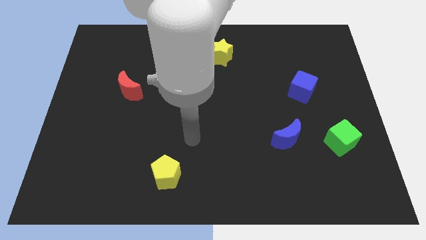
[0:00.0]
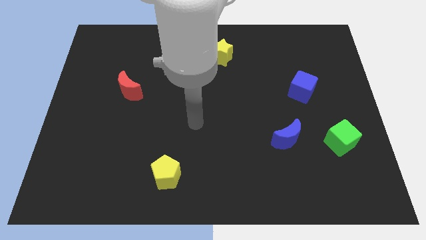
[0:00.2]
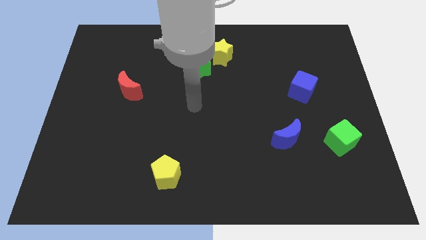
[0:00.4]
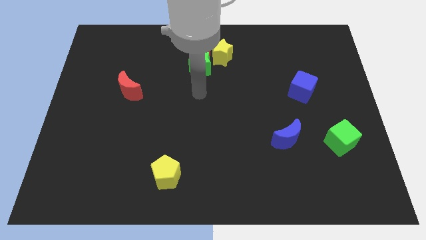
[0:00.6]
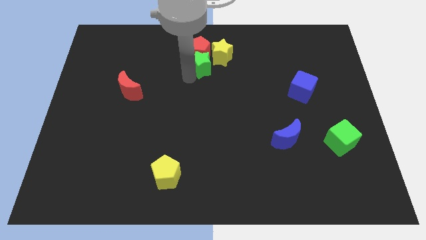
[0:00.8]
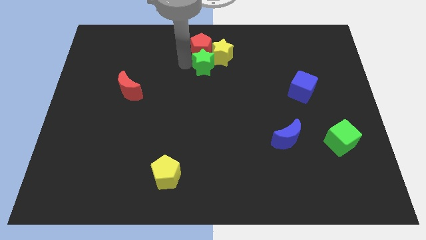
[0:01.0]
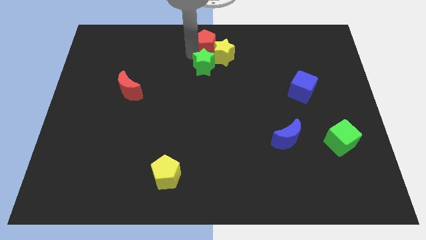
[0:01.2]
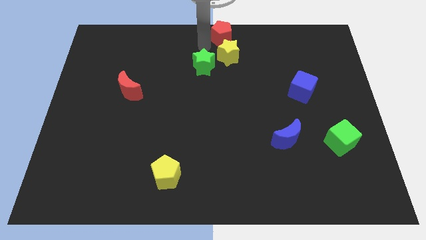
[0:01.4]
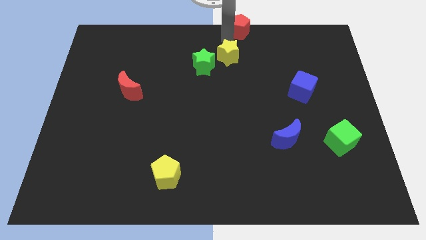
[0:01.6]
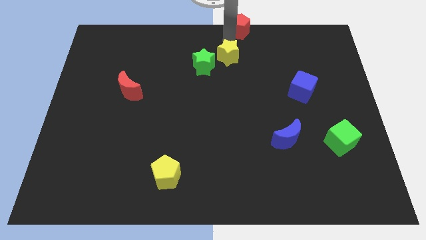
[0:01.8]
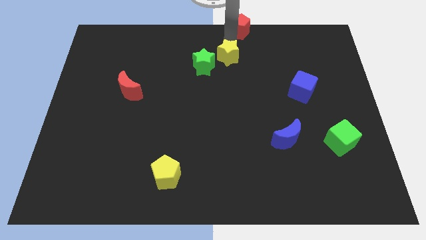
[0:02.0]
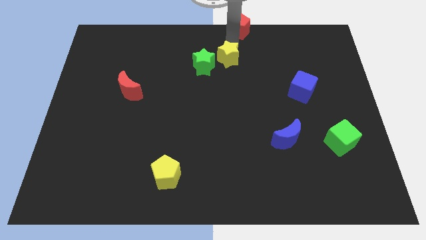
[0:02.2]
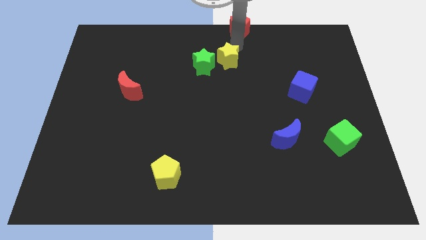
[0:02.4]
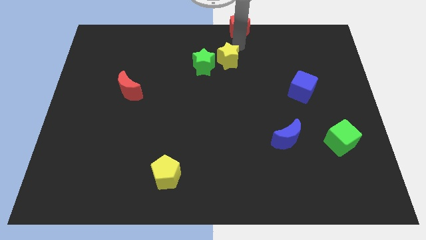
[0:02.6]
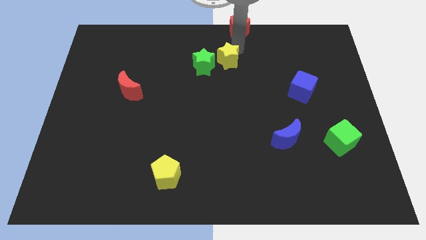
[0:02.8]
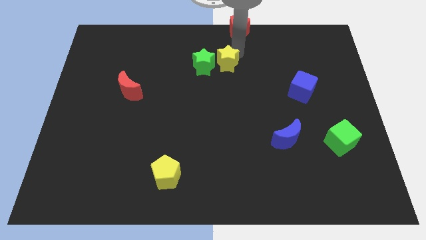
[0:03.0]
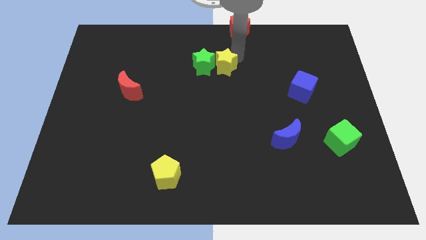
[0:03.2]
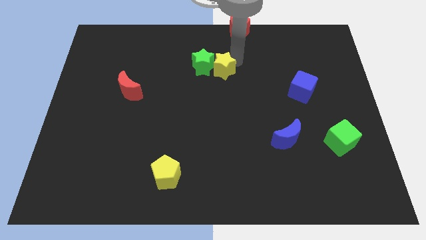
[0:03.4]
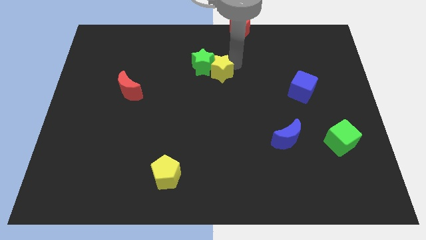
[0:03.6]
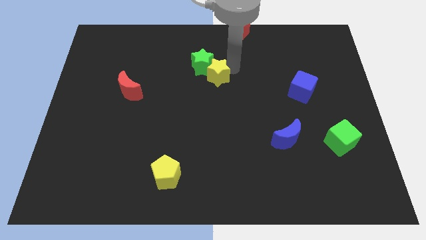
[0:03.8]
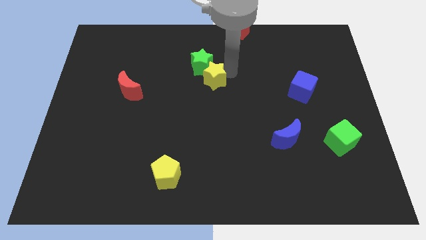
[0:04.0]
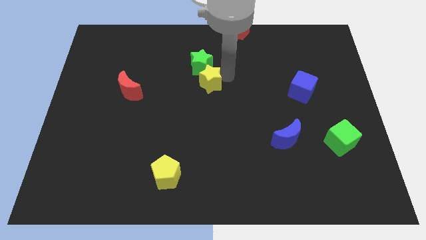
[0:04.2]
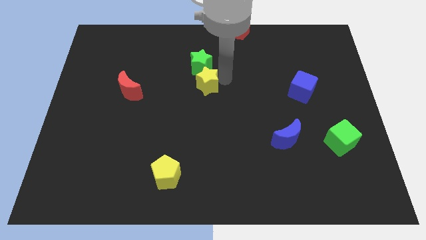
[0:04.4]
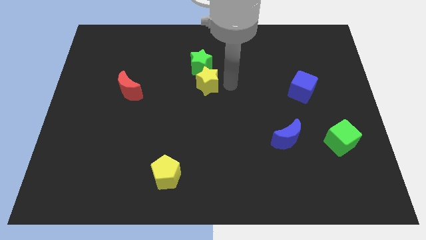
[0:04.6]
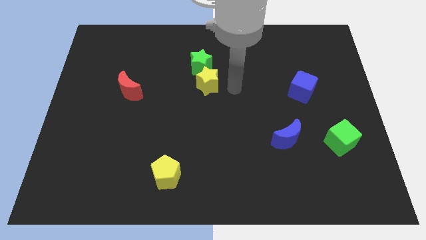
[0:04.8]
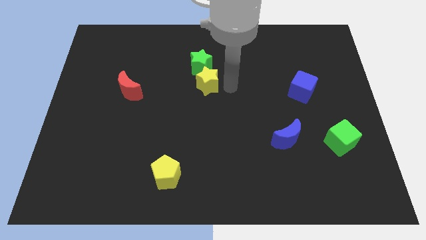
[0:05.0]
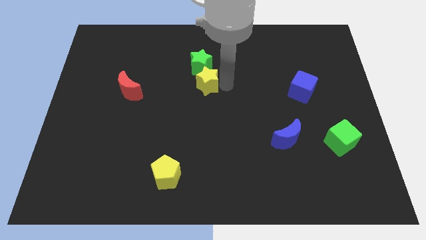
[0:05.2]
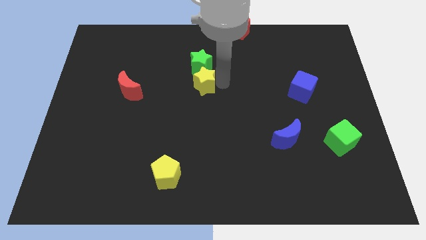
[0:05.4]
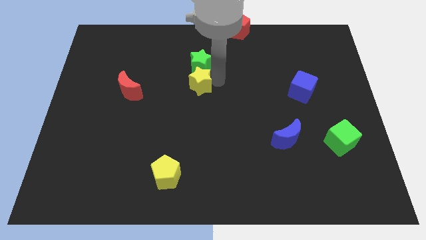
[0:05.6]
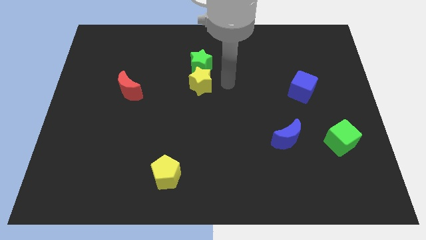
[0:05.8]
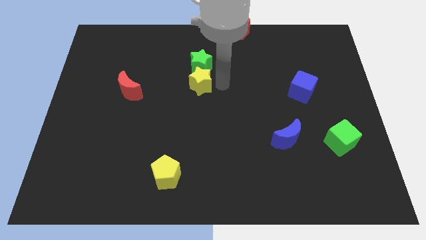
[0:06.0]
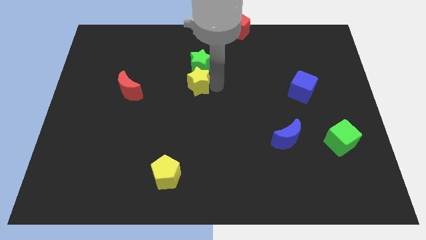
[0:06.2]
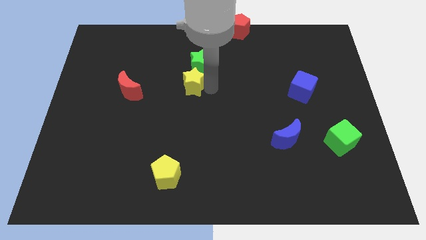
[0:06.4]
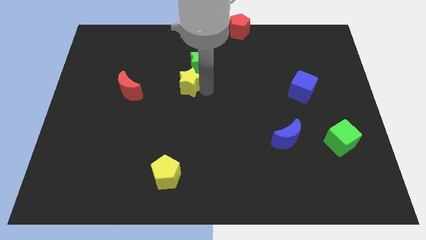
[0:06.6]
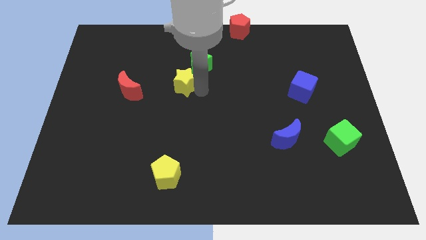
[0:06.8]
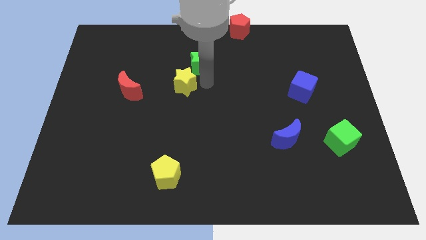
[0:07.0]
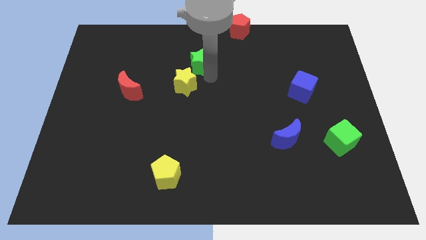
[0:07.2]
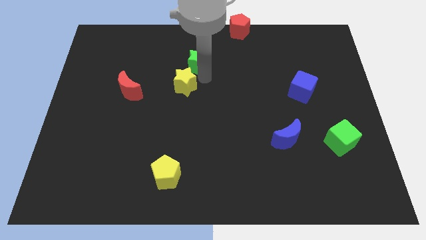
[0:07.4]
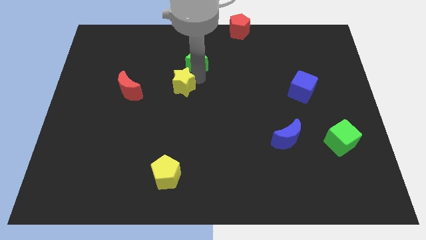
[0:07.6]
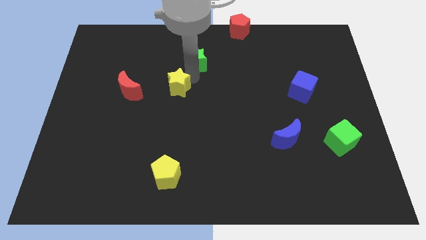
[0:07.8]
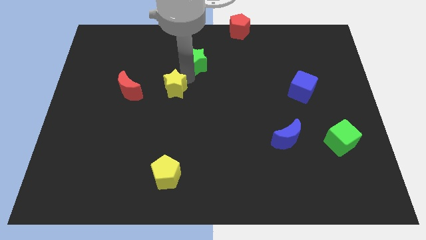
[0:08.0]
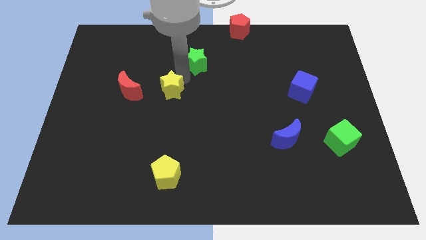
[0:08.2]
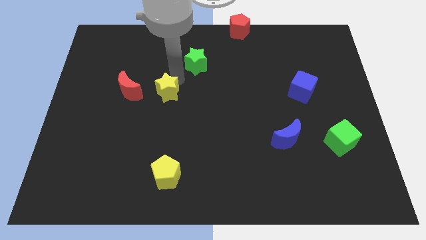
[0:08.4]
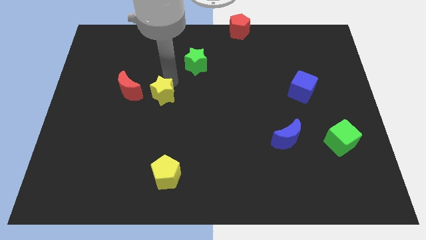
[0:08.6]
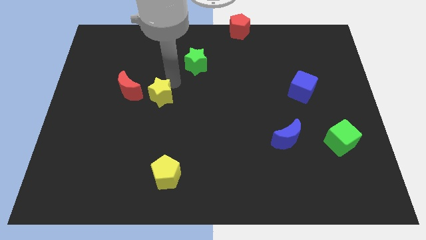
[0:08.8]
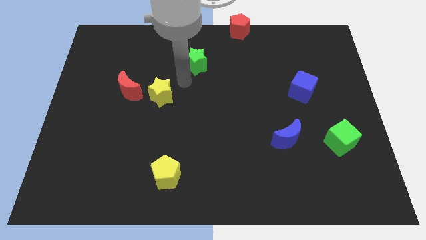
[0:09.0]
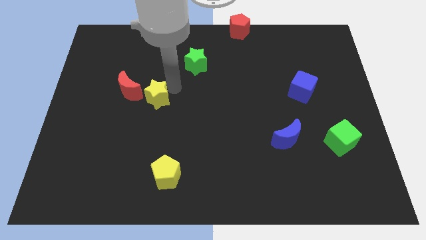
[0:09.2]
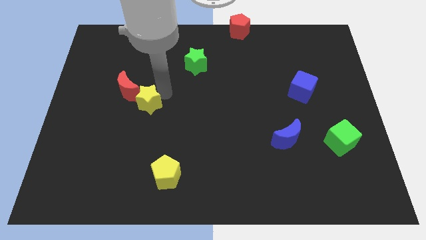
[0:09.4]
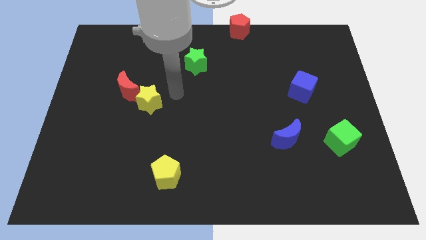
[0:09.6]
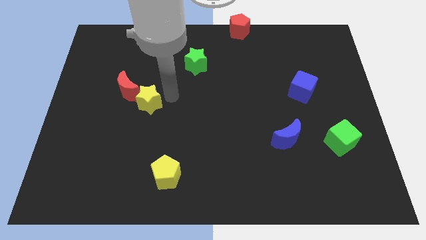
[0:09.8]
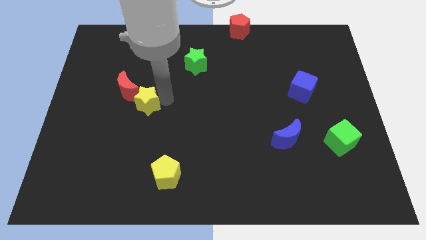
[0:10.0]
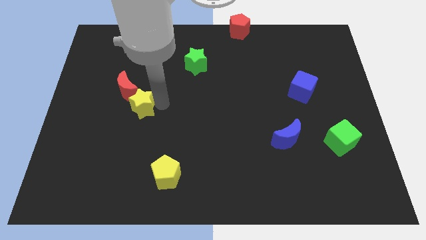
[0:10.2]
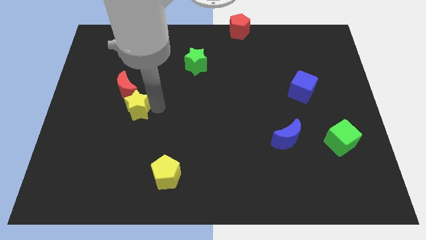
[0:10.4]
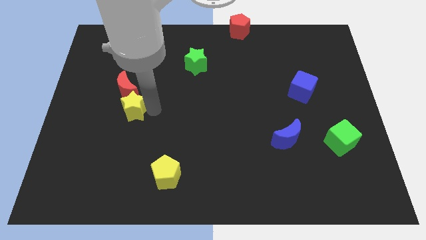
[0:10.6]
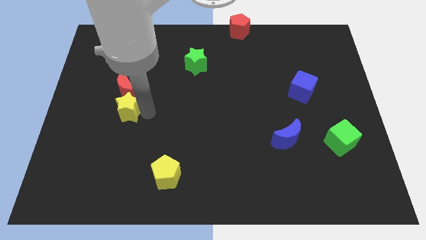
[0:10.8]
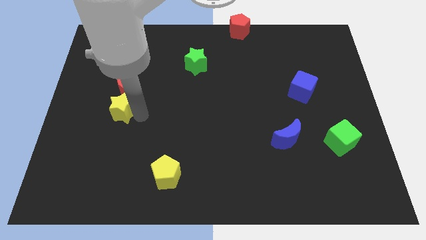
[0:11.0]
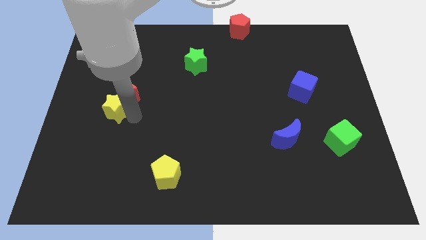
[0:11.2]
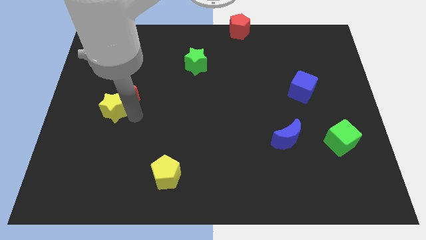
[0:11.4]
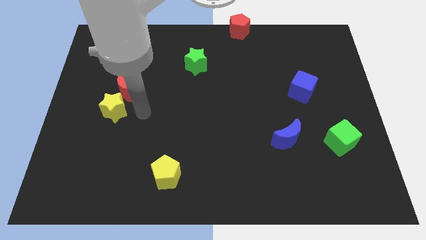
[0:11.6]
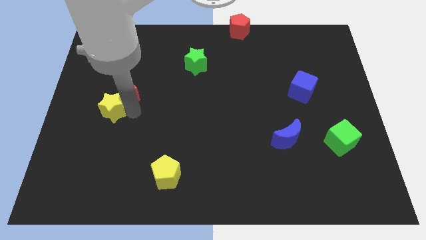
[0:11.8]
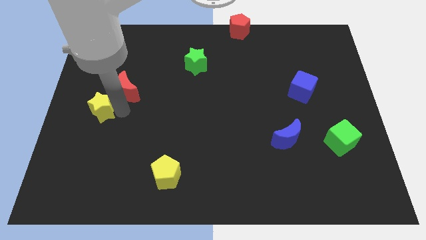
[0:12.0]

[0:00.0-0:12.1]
slide the yellow star to the left side
